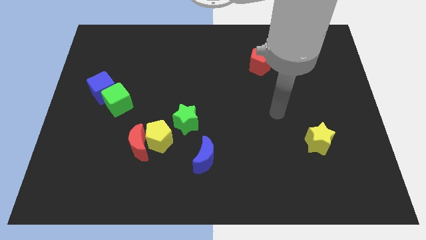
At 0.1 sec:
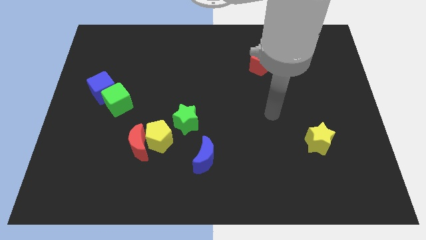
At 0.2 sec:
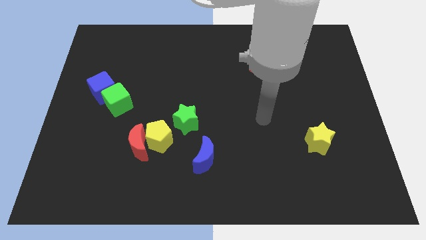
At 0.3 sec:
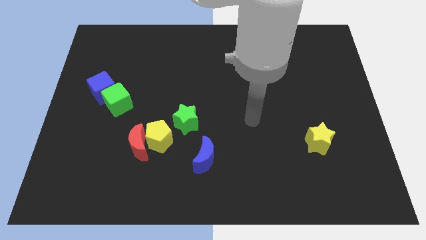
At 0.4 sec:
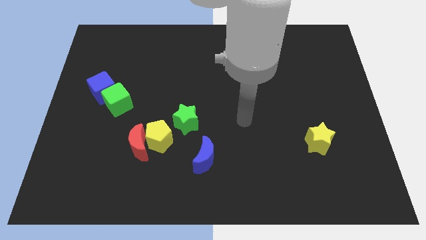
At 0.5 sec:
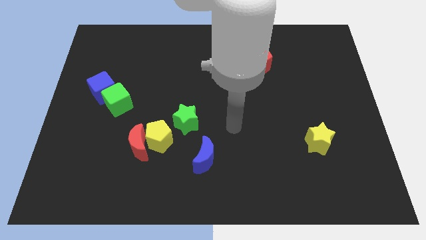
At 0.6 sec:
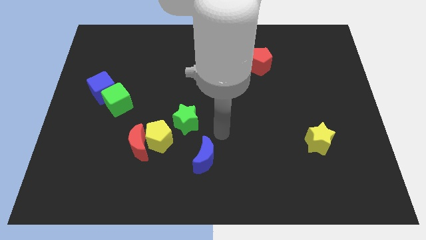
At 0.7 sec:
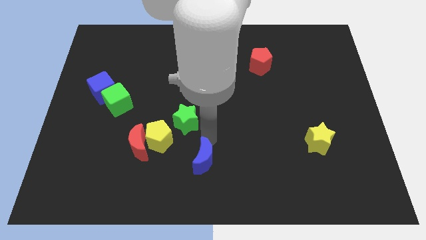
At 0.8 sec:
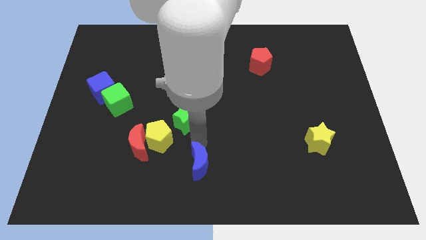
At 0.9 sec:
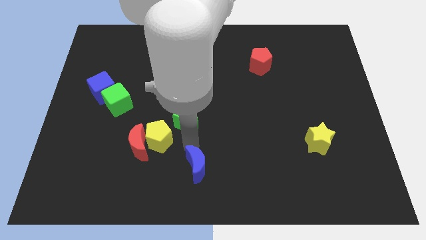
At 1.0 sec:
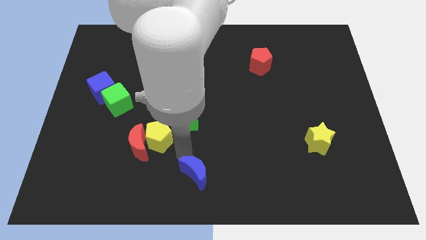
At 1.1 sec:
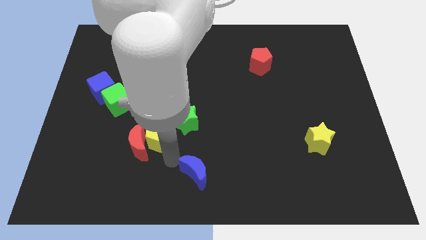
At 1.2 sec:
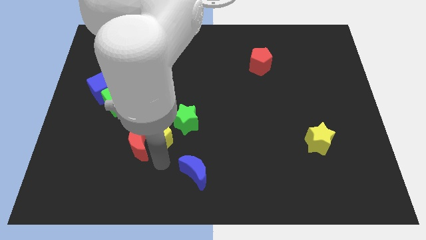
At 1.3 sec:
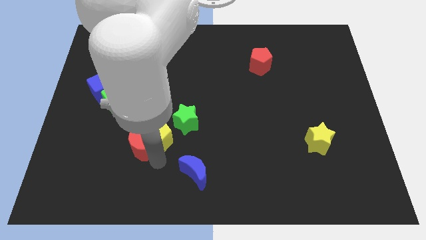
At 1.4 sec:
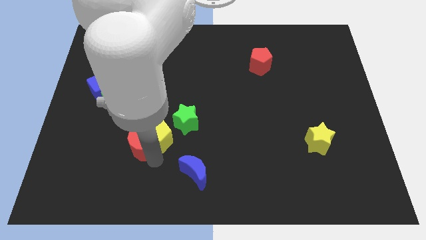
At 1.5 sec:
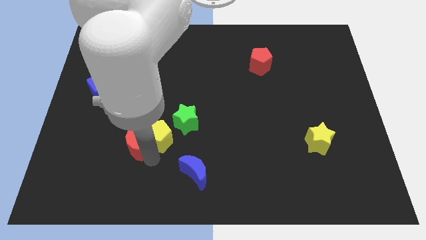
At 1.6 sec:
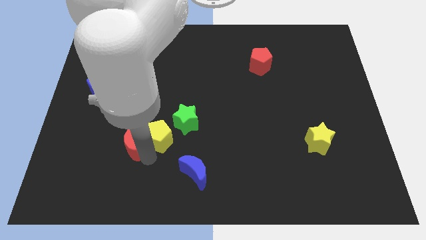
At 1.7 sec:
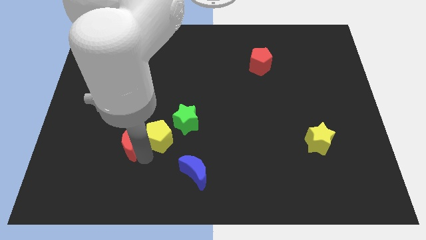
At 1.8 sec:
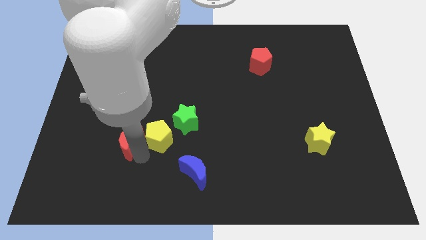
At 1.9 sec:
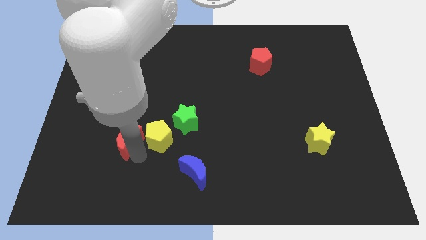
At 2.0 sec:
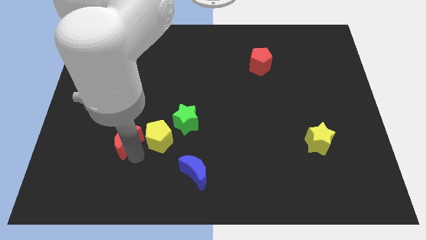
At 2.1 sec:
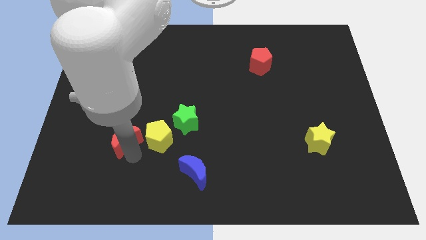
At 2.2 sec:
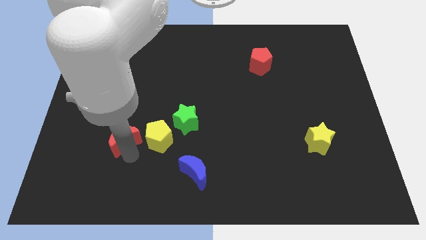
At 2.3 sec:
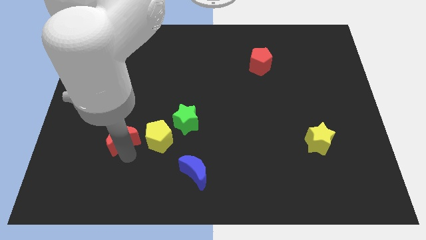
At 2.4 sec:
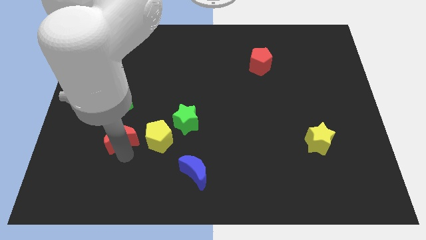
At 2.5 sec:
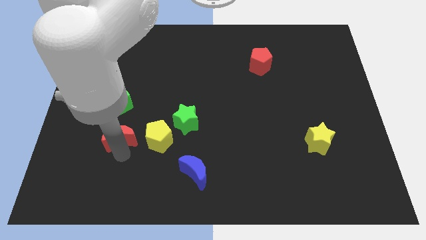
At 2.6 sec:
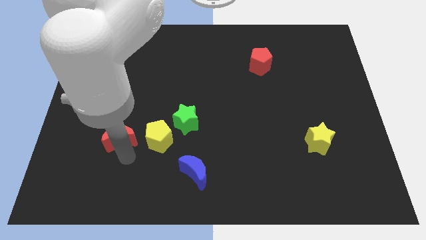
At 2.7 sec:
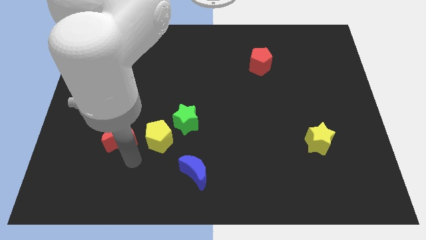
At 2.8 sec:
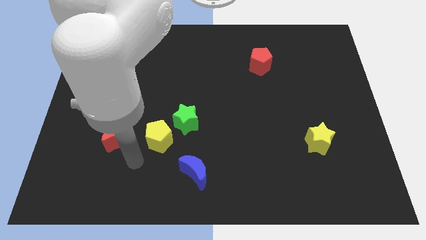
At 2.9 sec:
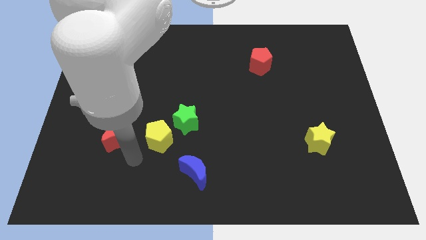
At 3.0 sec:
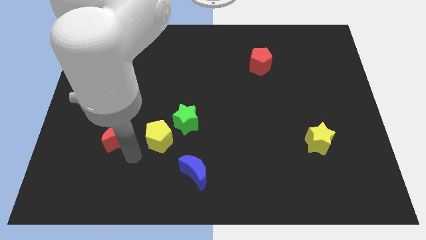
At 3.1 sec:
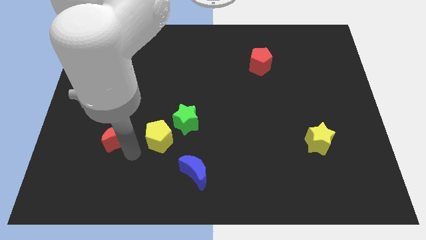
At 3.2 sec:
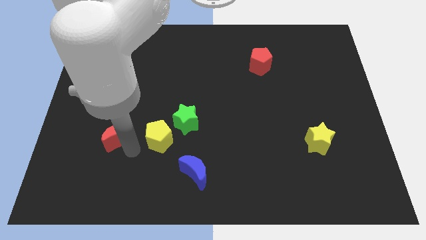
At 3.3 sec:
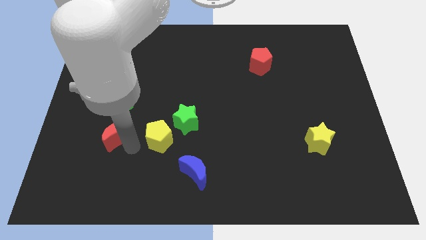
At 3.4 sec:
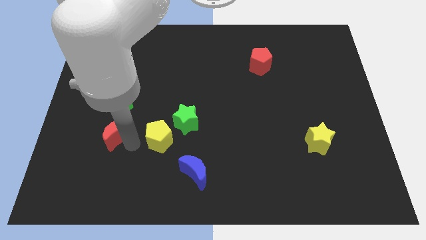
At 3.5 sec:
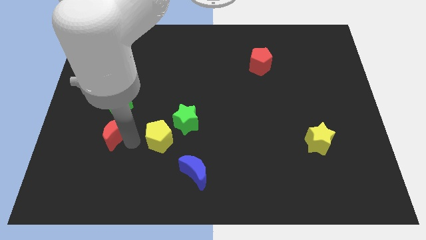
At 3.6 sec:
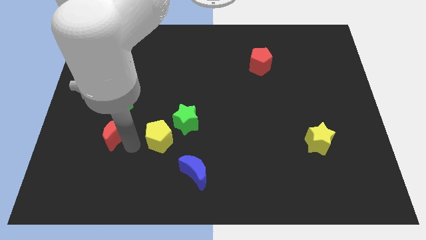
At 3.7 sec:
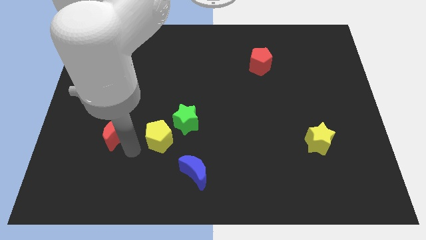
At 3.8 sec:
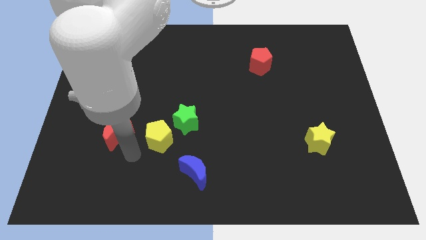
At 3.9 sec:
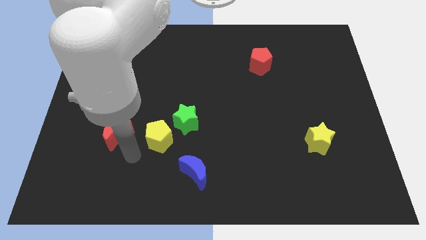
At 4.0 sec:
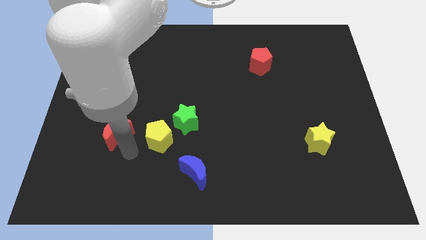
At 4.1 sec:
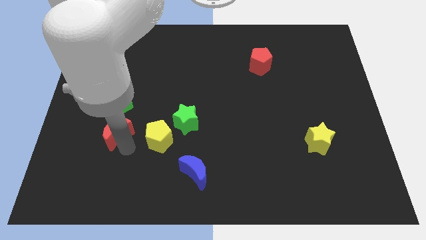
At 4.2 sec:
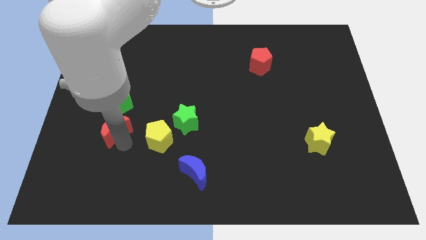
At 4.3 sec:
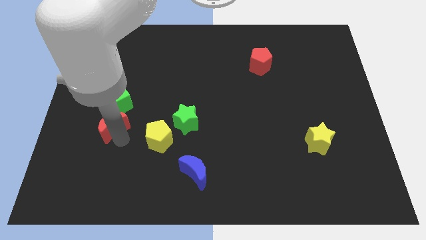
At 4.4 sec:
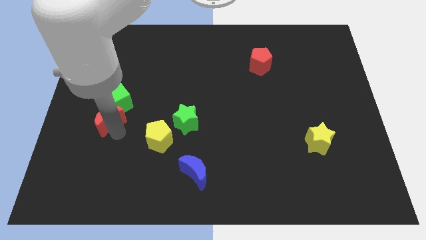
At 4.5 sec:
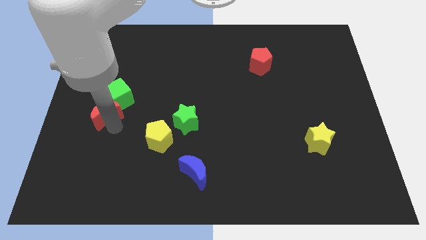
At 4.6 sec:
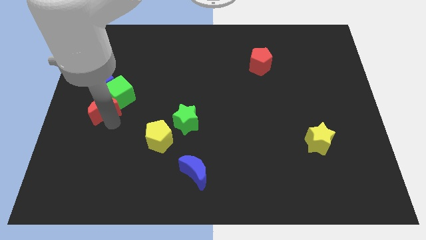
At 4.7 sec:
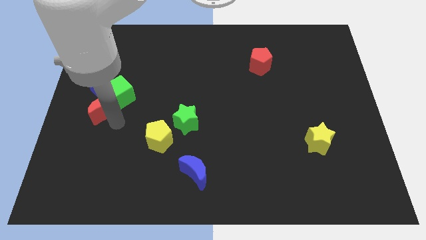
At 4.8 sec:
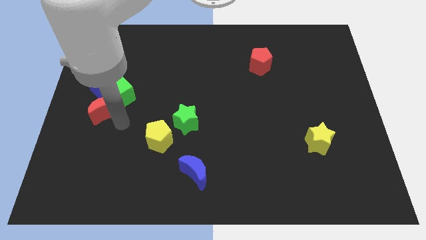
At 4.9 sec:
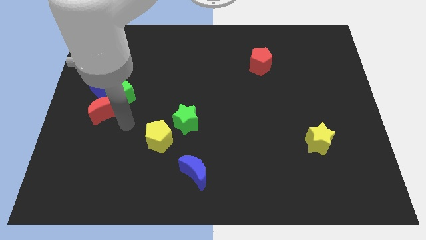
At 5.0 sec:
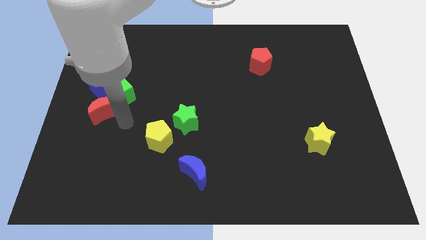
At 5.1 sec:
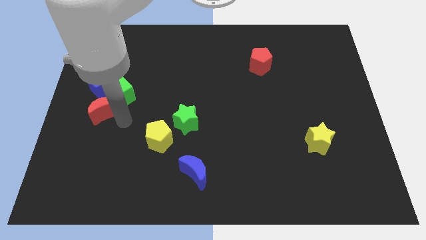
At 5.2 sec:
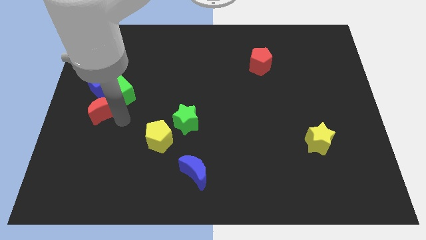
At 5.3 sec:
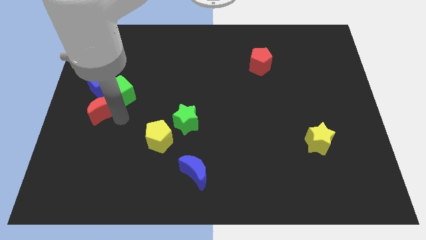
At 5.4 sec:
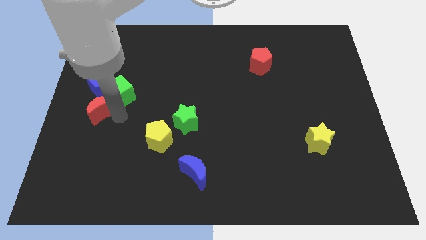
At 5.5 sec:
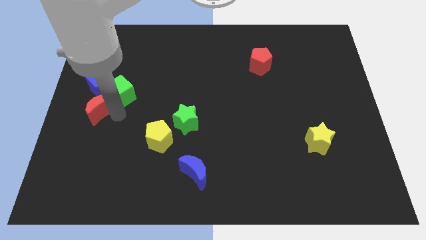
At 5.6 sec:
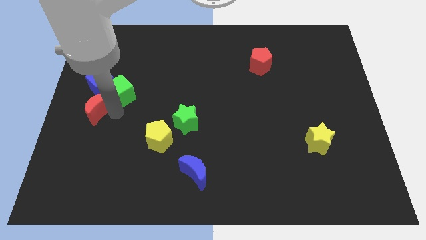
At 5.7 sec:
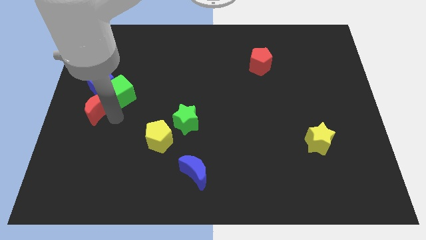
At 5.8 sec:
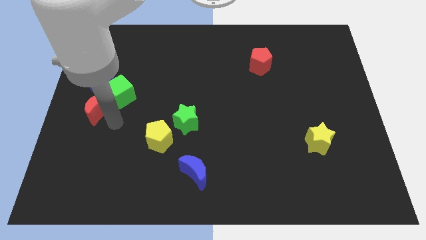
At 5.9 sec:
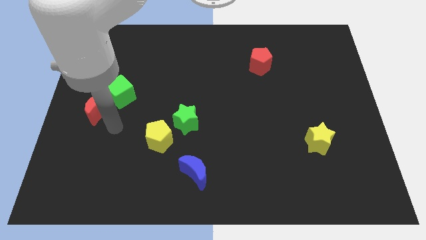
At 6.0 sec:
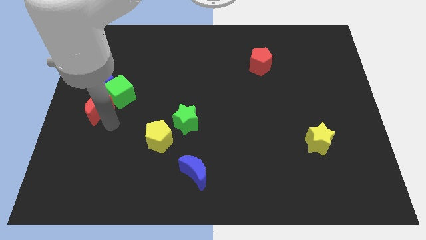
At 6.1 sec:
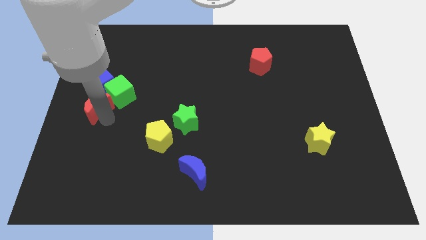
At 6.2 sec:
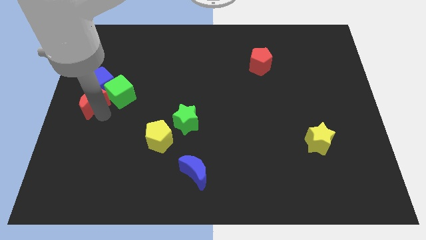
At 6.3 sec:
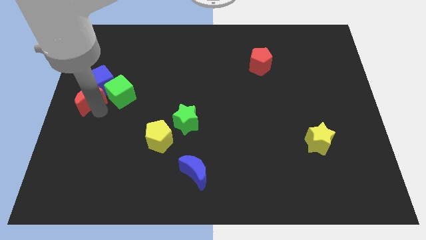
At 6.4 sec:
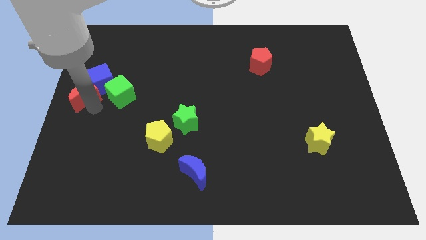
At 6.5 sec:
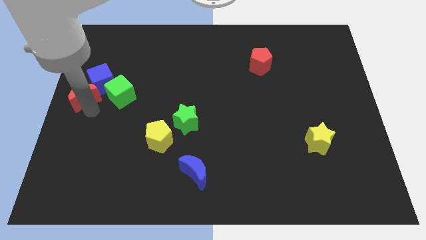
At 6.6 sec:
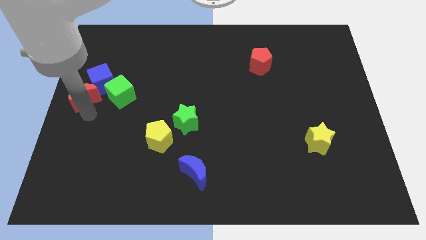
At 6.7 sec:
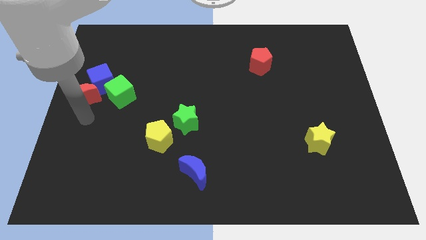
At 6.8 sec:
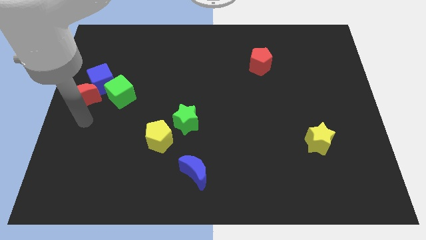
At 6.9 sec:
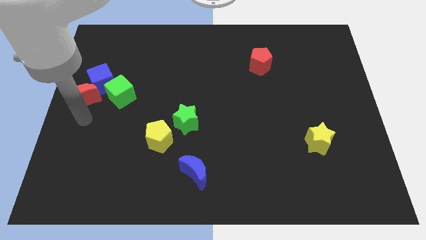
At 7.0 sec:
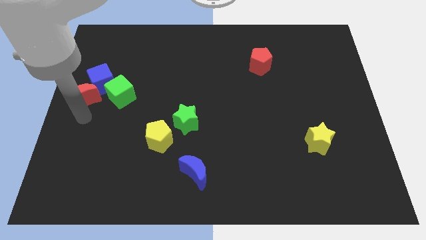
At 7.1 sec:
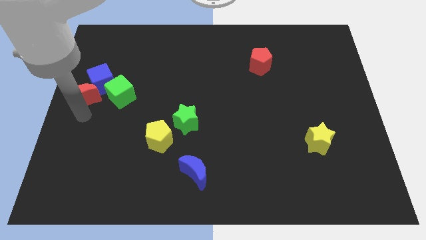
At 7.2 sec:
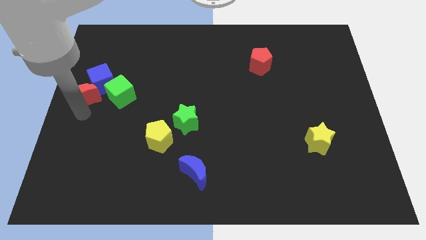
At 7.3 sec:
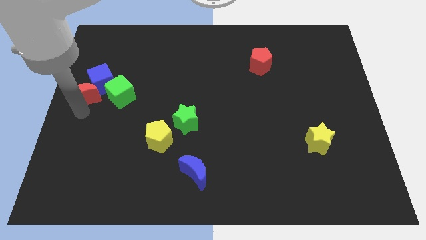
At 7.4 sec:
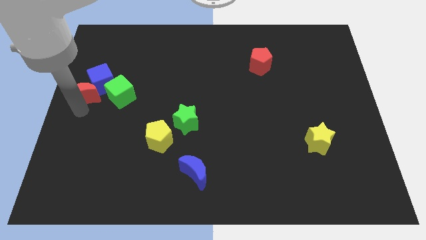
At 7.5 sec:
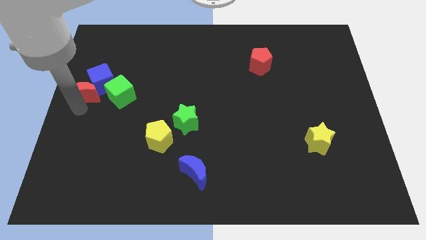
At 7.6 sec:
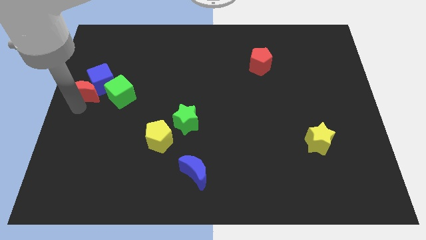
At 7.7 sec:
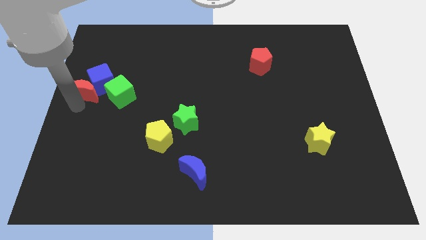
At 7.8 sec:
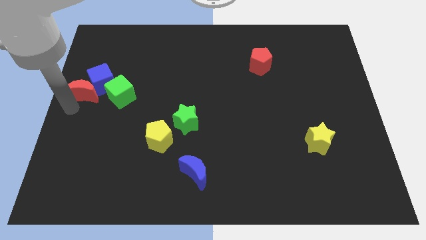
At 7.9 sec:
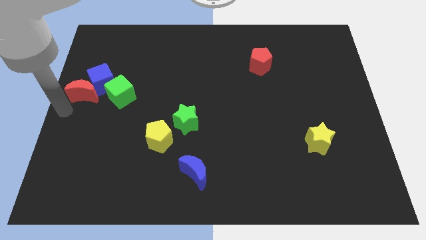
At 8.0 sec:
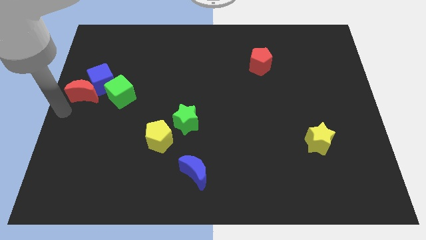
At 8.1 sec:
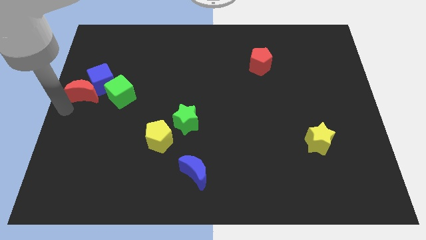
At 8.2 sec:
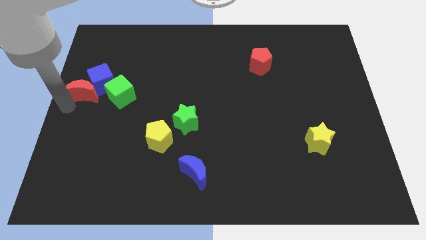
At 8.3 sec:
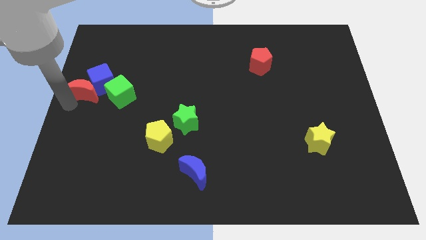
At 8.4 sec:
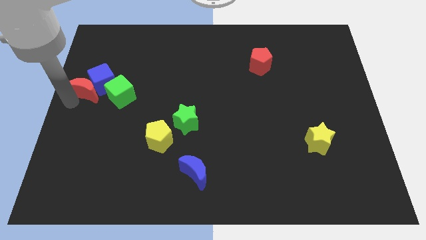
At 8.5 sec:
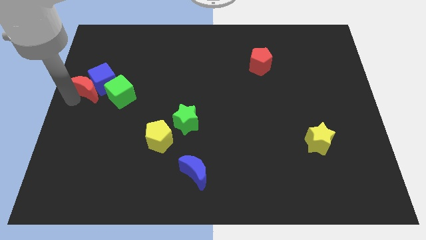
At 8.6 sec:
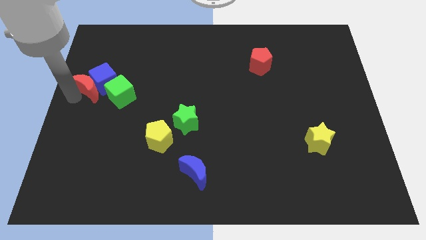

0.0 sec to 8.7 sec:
push the red moon diagonally up and to the left of the green cube
